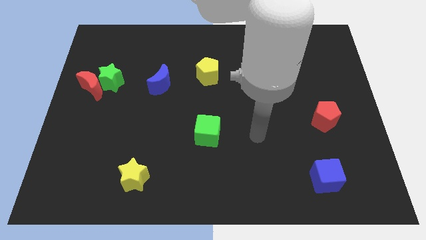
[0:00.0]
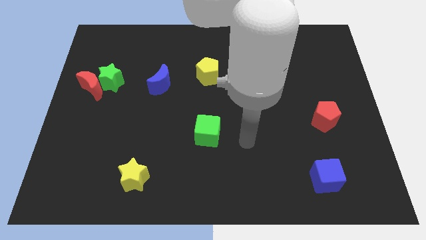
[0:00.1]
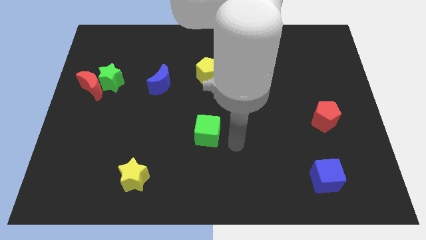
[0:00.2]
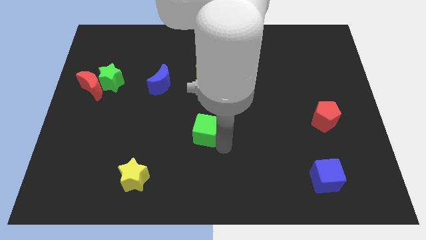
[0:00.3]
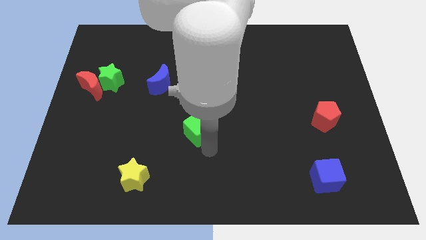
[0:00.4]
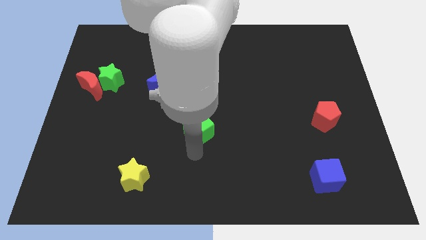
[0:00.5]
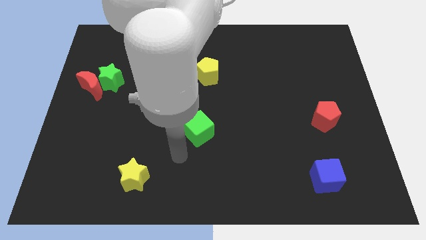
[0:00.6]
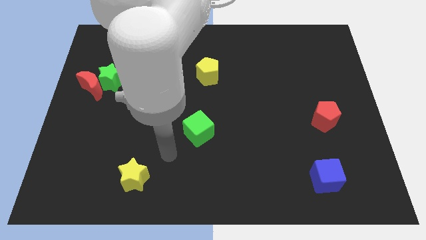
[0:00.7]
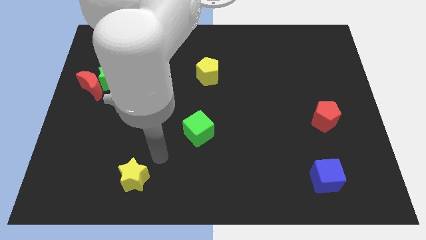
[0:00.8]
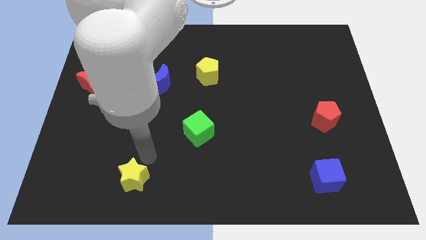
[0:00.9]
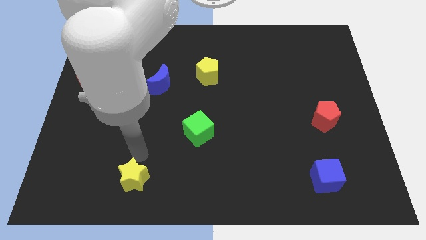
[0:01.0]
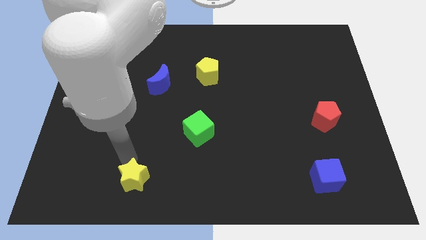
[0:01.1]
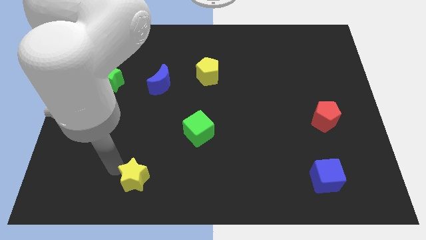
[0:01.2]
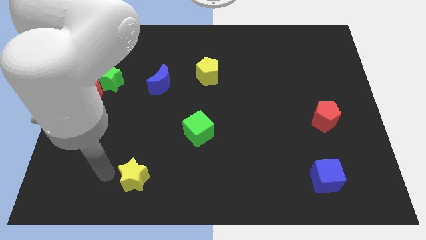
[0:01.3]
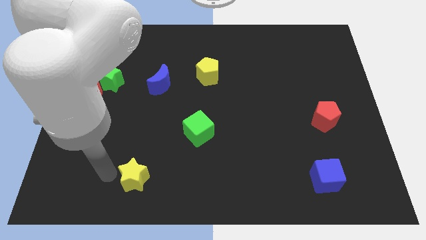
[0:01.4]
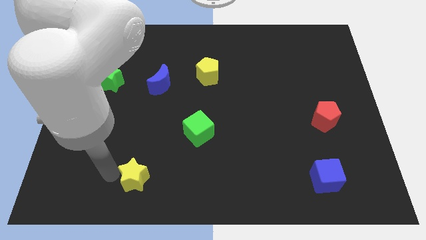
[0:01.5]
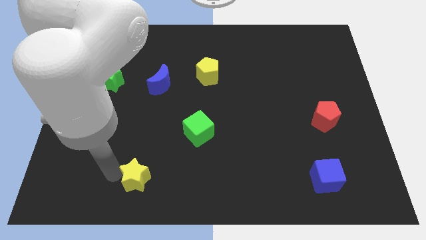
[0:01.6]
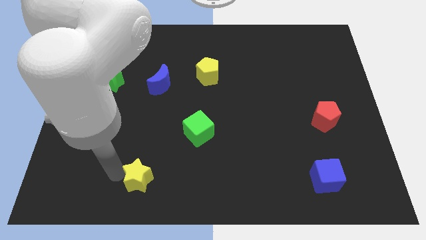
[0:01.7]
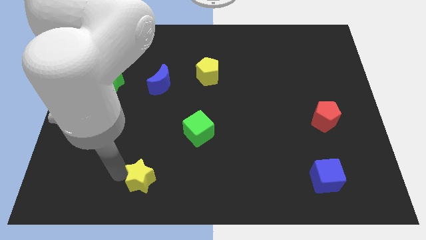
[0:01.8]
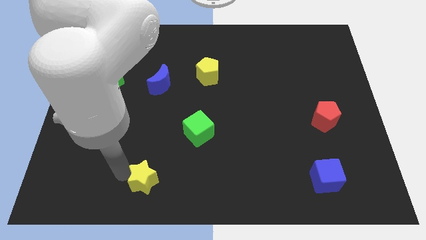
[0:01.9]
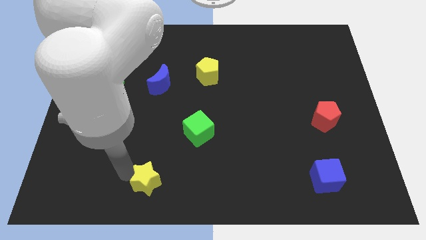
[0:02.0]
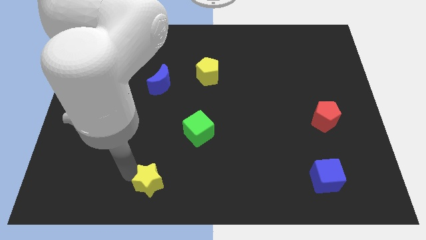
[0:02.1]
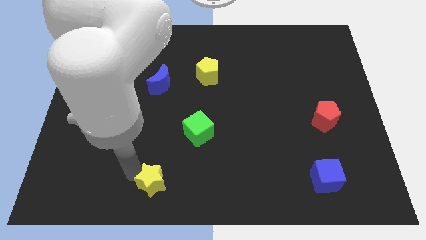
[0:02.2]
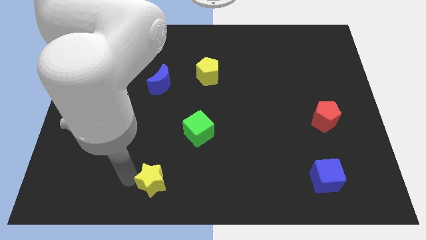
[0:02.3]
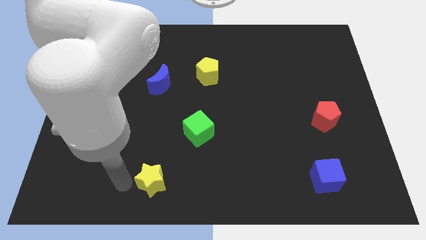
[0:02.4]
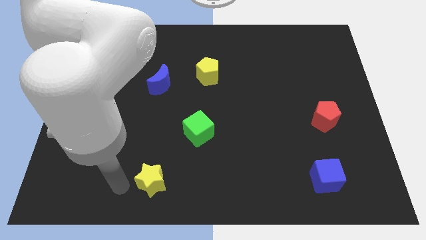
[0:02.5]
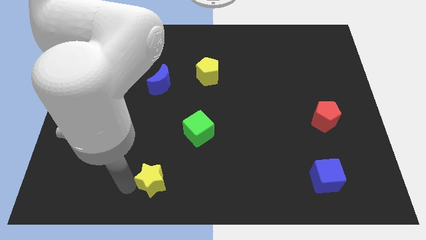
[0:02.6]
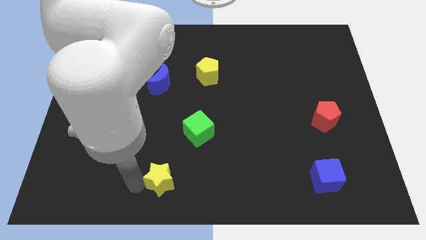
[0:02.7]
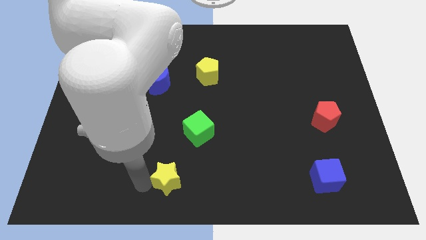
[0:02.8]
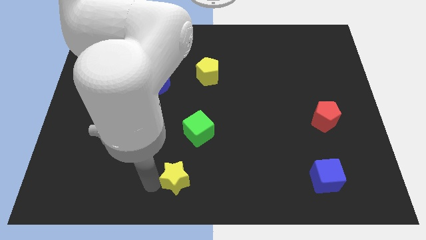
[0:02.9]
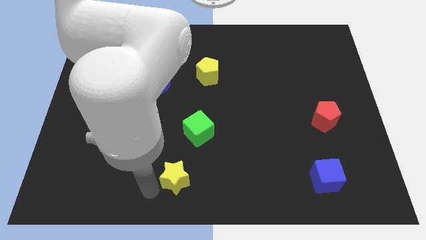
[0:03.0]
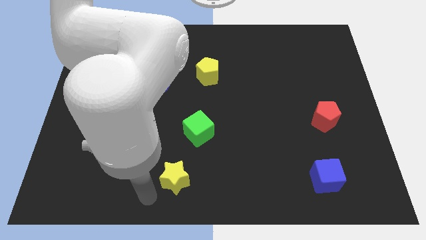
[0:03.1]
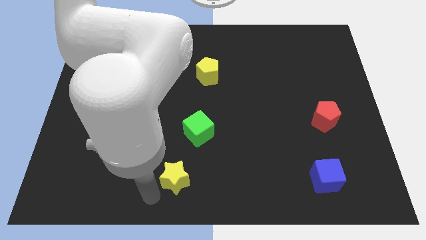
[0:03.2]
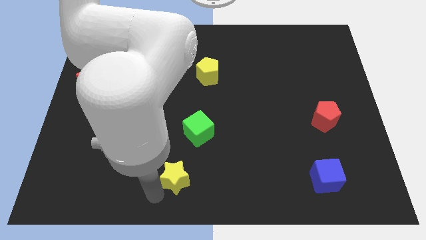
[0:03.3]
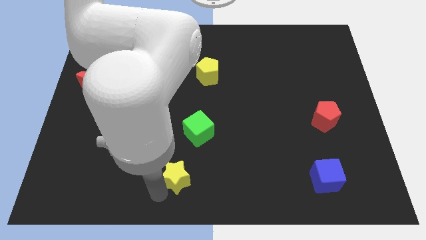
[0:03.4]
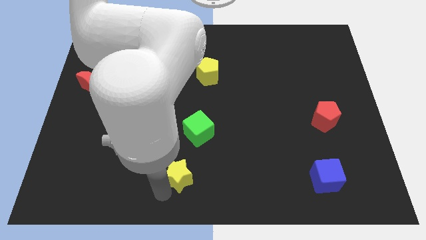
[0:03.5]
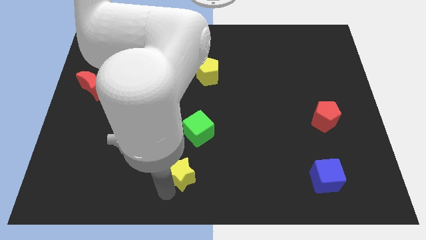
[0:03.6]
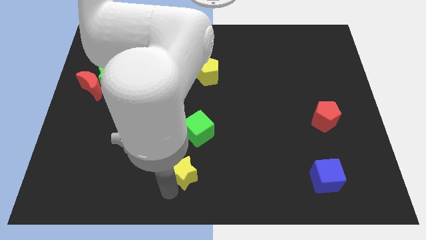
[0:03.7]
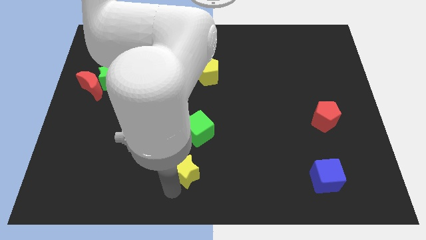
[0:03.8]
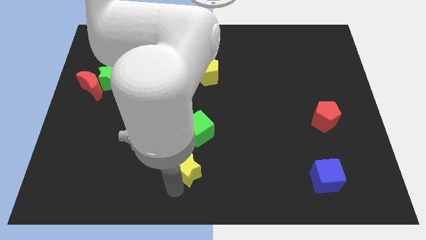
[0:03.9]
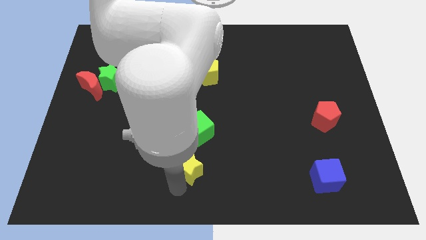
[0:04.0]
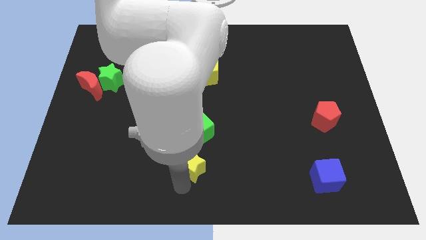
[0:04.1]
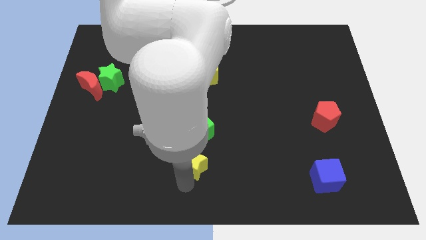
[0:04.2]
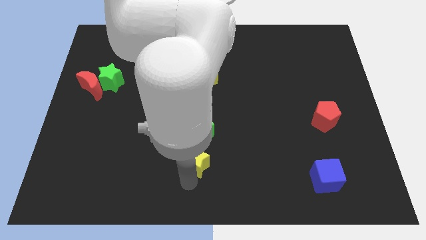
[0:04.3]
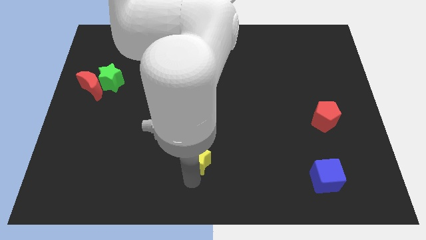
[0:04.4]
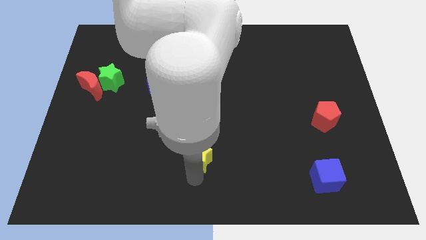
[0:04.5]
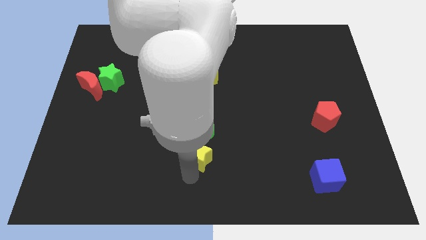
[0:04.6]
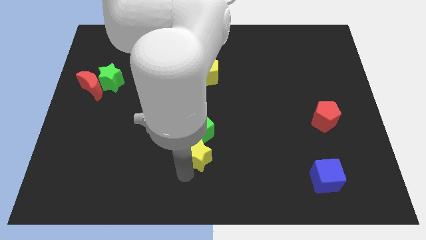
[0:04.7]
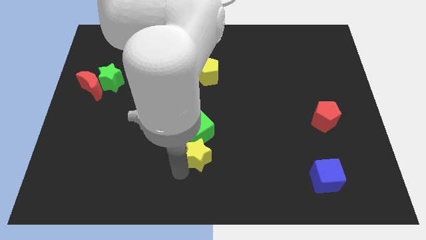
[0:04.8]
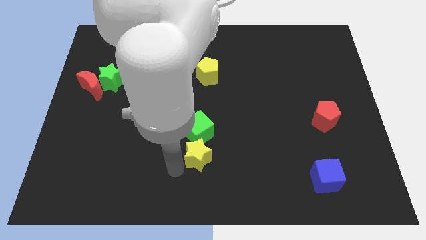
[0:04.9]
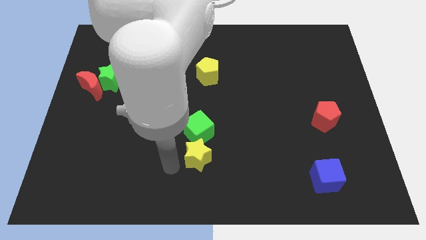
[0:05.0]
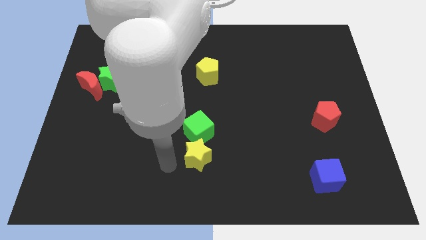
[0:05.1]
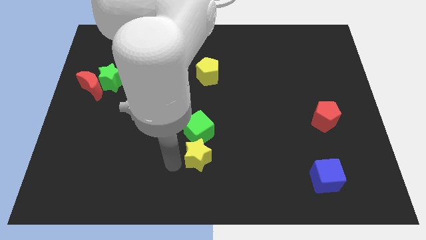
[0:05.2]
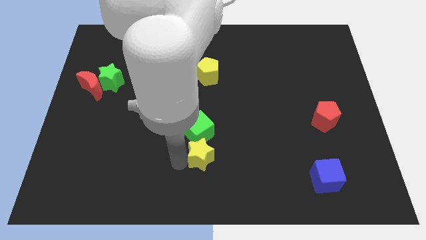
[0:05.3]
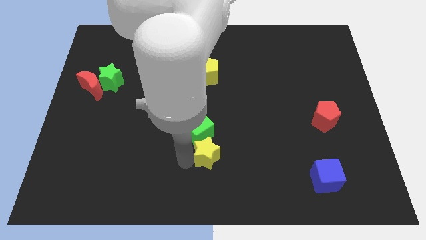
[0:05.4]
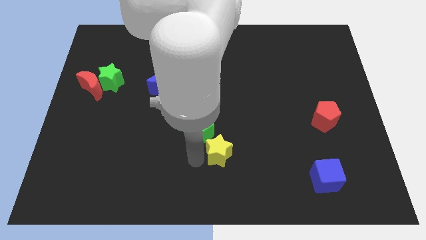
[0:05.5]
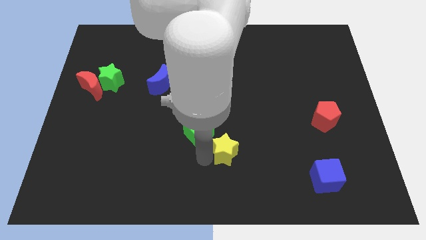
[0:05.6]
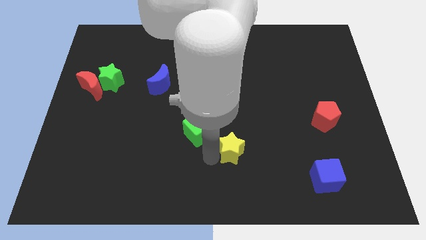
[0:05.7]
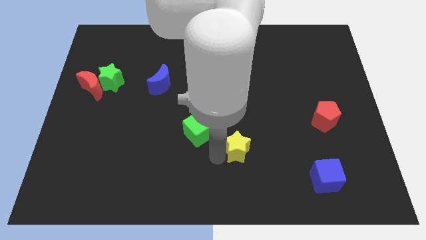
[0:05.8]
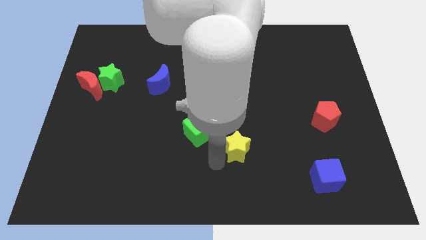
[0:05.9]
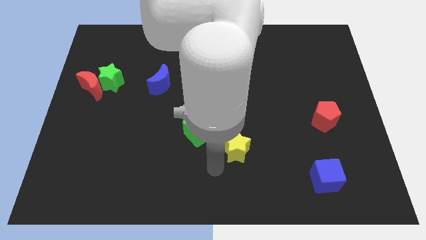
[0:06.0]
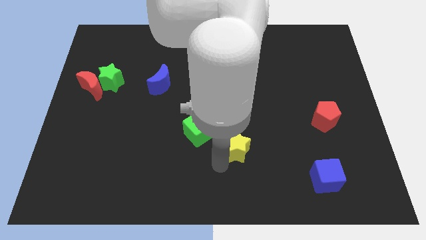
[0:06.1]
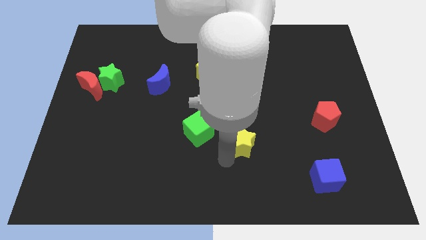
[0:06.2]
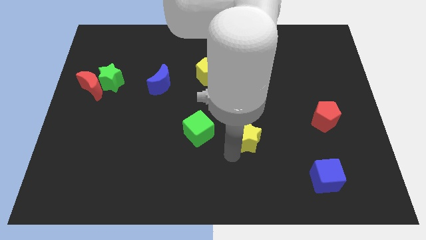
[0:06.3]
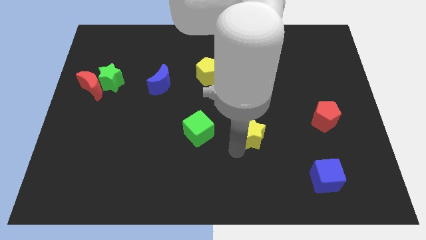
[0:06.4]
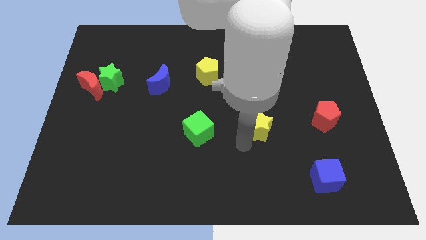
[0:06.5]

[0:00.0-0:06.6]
put the yellow star to the left side of the red pentagon

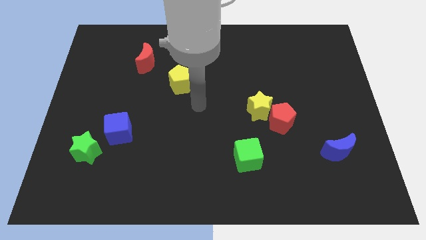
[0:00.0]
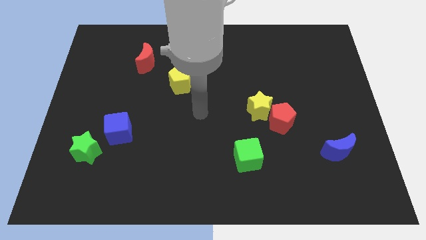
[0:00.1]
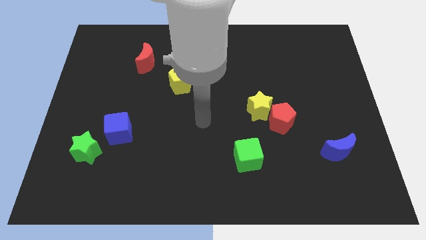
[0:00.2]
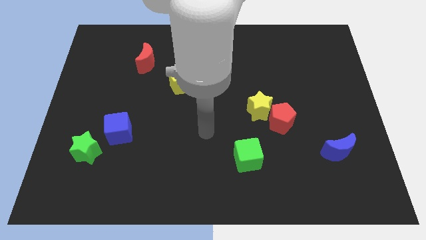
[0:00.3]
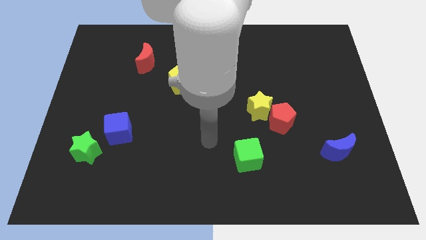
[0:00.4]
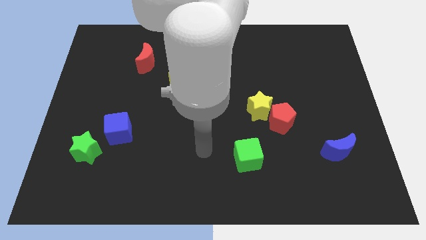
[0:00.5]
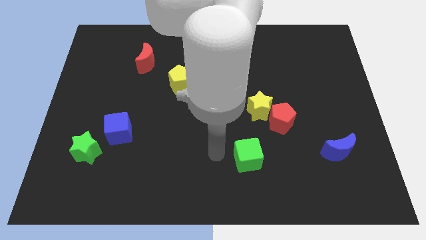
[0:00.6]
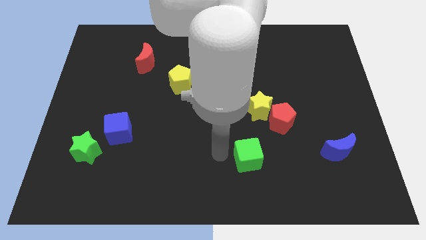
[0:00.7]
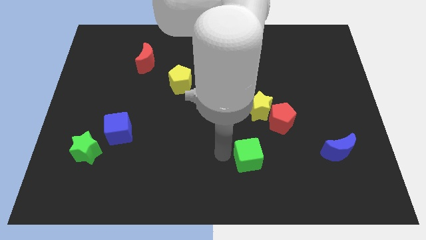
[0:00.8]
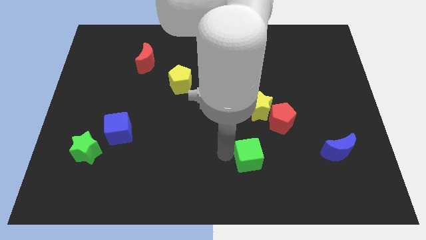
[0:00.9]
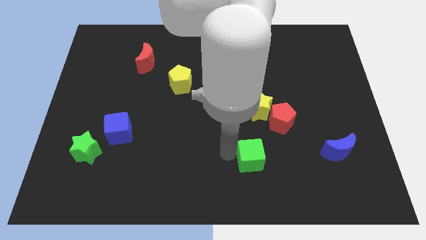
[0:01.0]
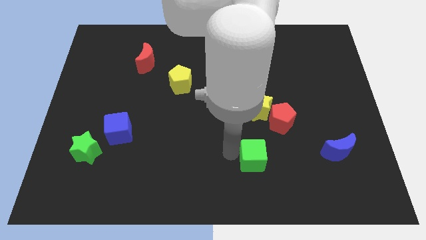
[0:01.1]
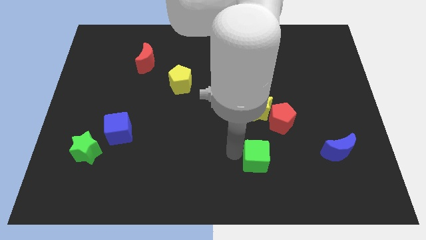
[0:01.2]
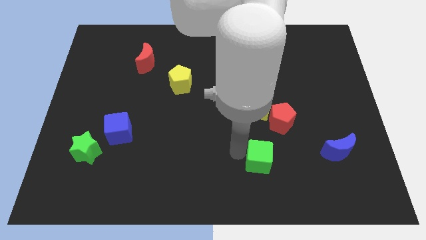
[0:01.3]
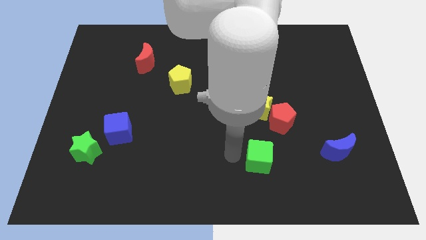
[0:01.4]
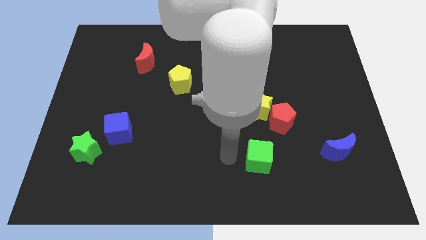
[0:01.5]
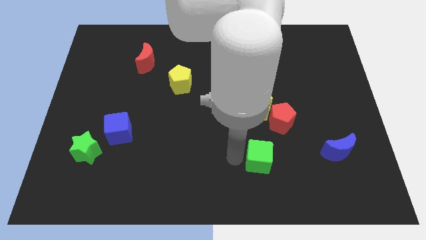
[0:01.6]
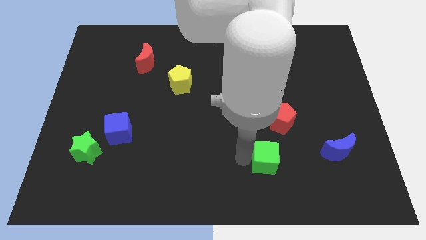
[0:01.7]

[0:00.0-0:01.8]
put the green cube to the bottom side of the red pentagon
